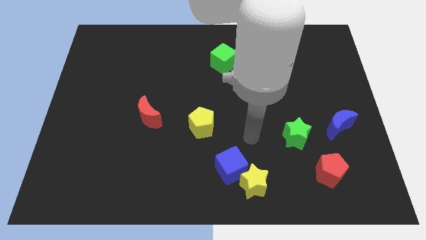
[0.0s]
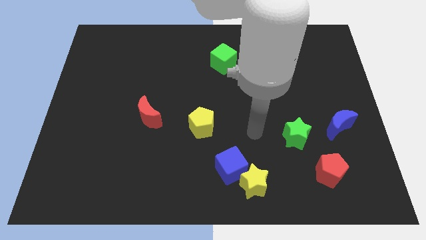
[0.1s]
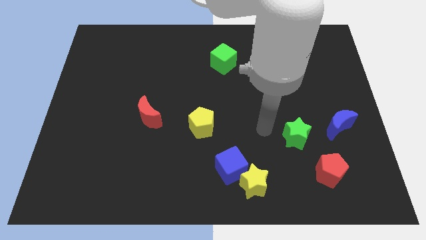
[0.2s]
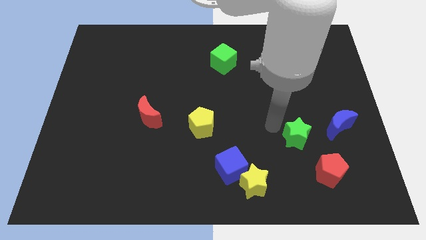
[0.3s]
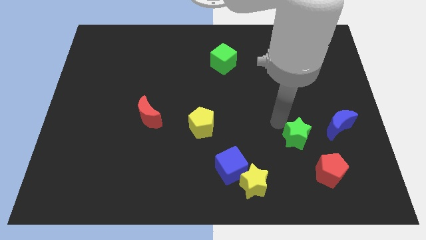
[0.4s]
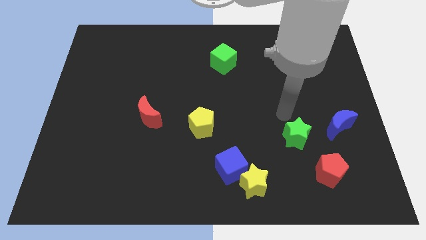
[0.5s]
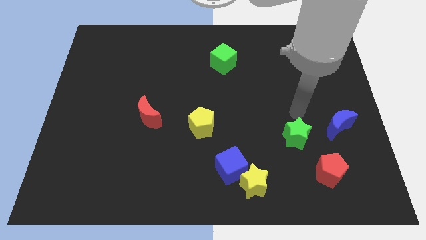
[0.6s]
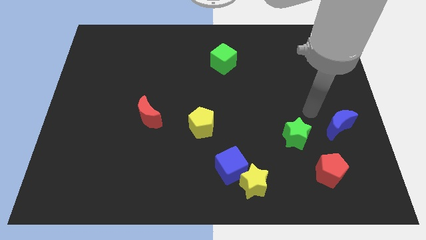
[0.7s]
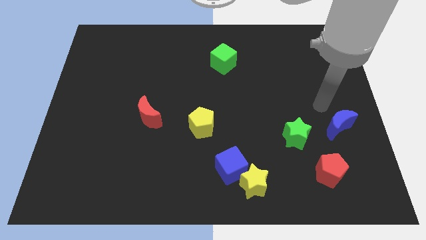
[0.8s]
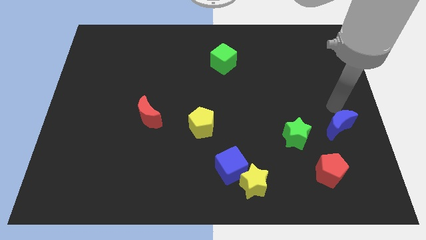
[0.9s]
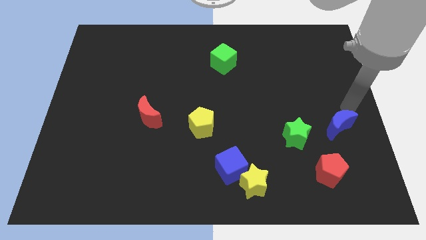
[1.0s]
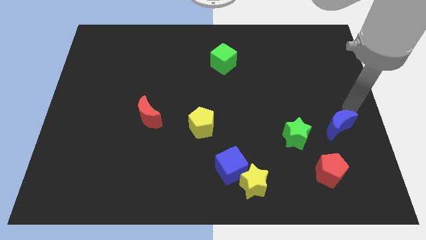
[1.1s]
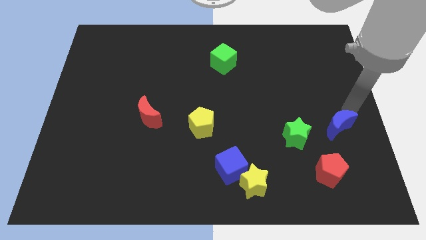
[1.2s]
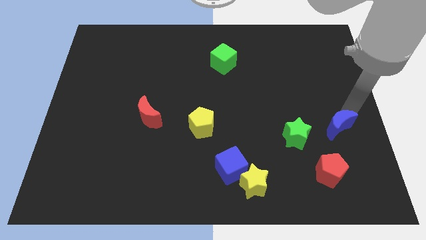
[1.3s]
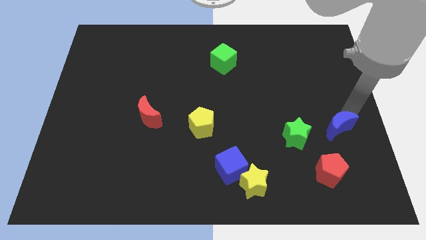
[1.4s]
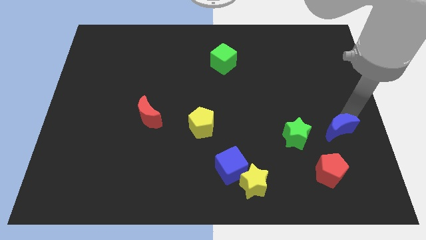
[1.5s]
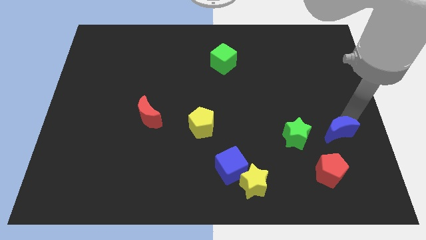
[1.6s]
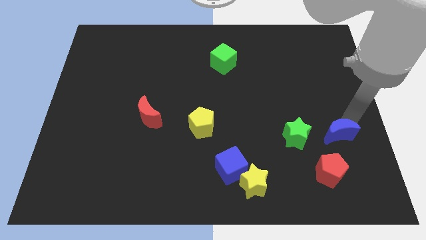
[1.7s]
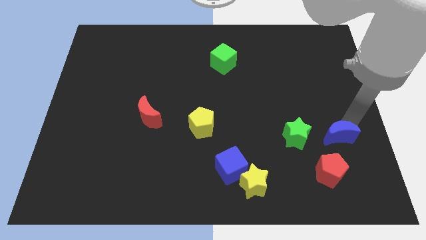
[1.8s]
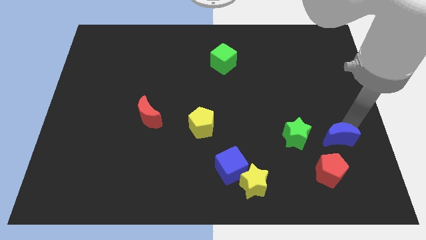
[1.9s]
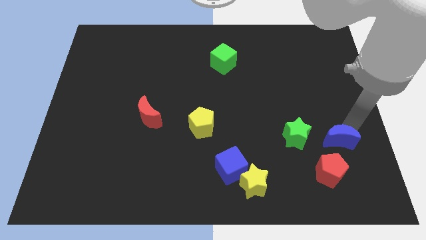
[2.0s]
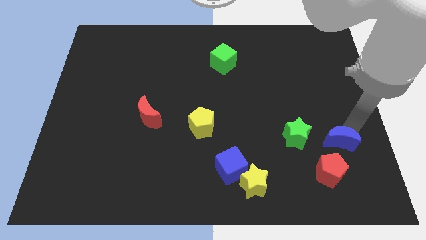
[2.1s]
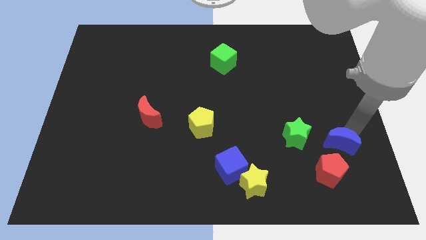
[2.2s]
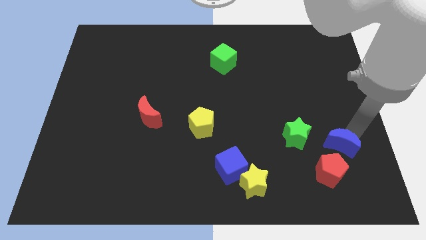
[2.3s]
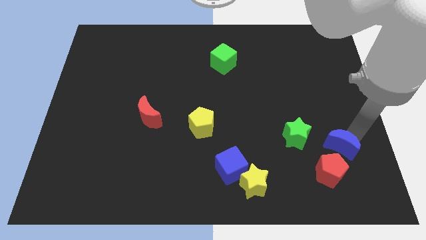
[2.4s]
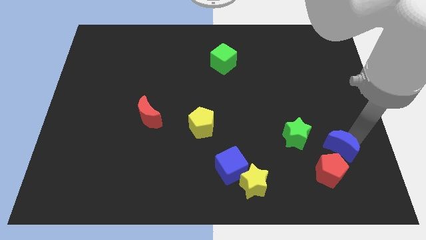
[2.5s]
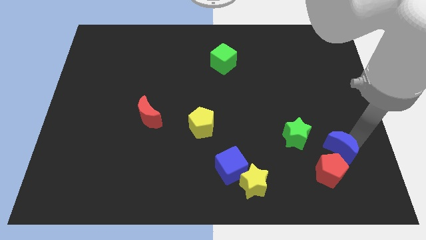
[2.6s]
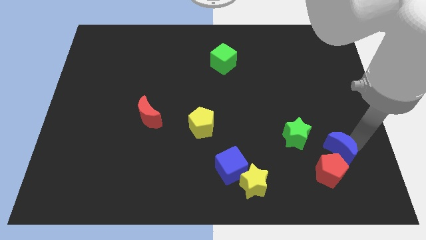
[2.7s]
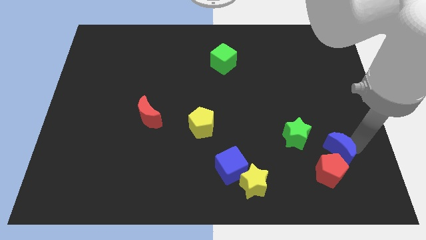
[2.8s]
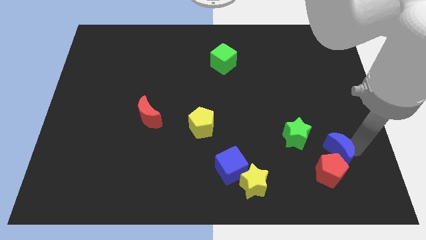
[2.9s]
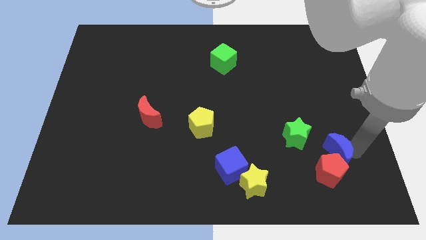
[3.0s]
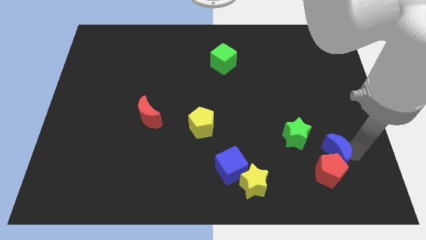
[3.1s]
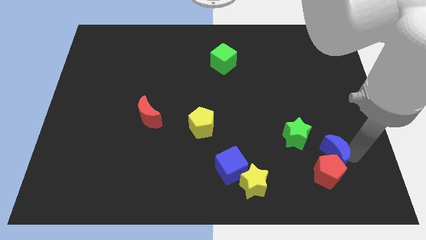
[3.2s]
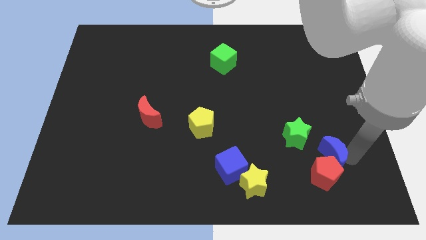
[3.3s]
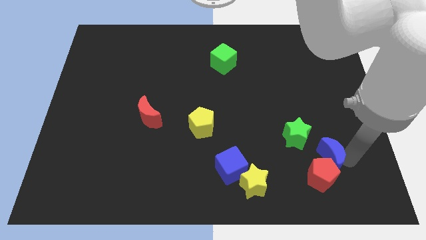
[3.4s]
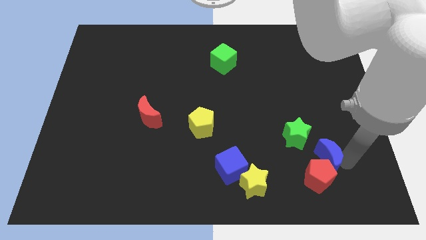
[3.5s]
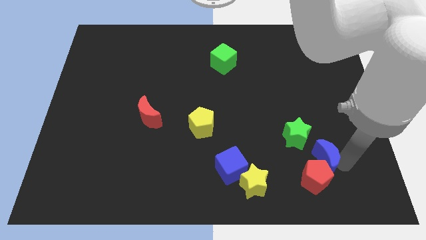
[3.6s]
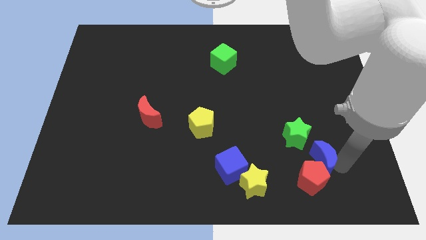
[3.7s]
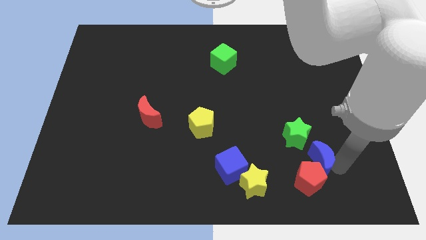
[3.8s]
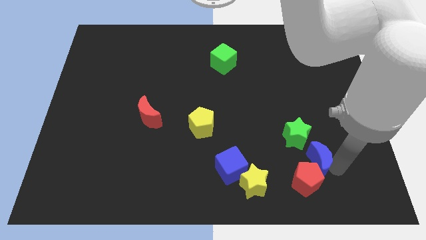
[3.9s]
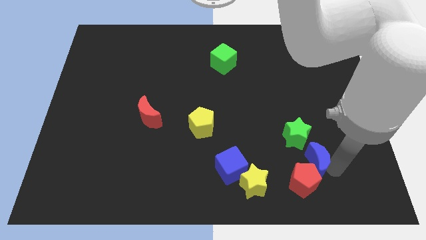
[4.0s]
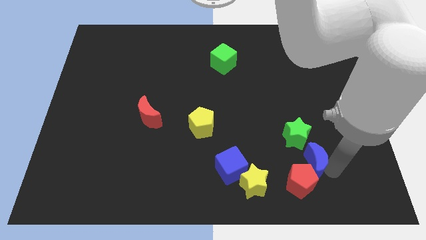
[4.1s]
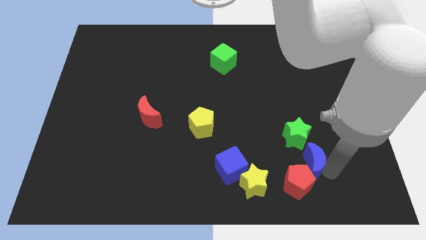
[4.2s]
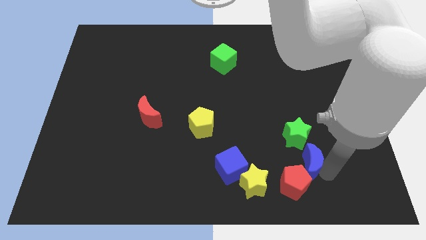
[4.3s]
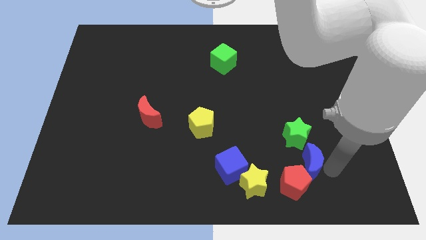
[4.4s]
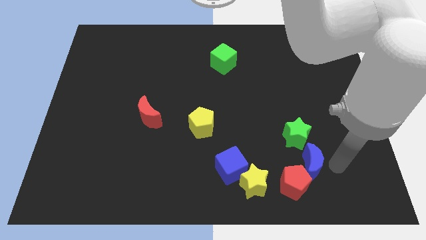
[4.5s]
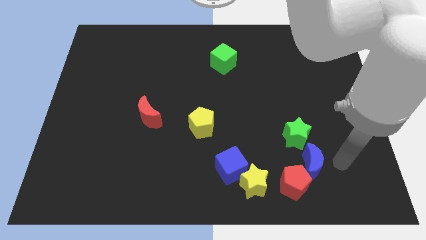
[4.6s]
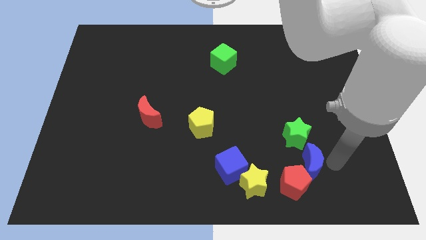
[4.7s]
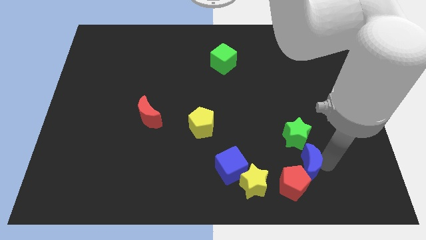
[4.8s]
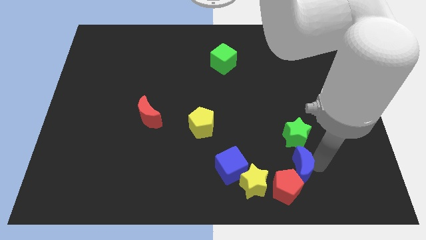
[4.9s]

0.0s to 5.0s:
put the blue moon to the right side of the blue cube

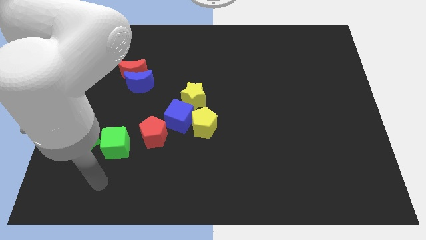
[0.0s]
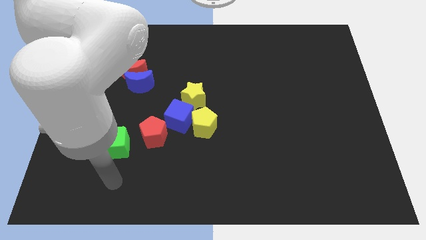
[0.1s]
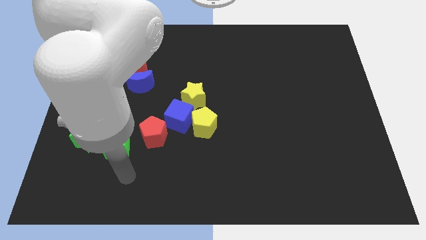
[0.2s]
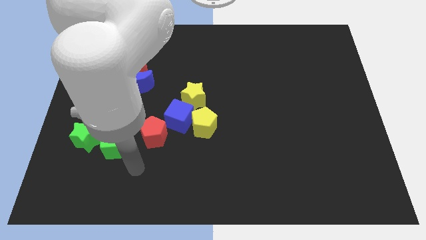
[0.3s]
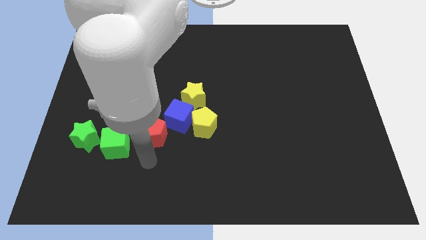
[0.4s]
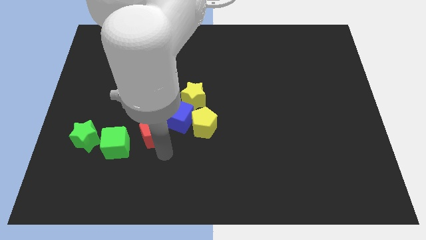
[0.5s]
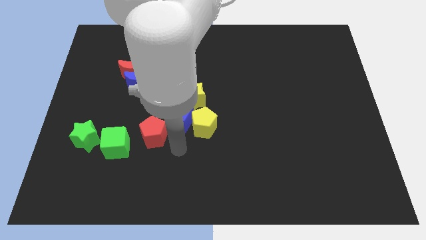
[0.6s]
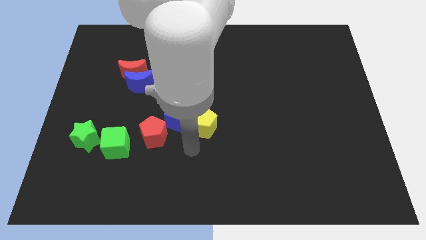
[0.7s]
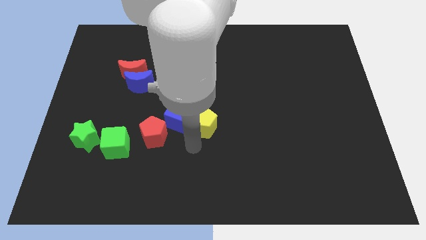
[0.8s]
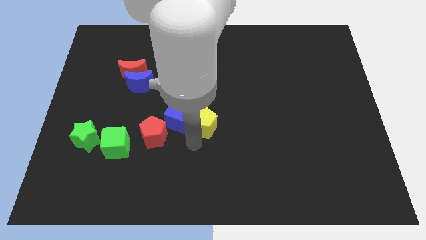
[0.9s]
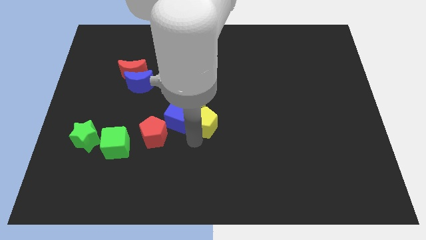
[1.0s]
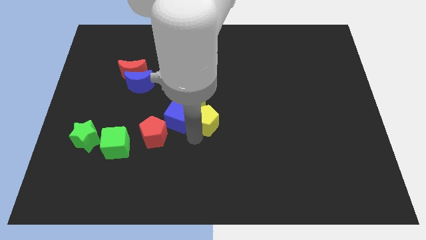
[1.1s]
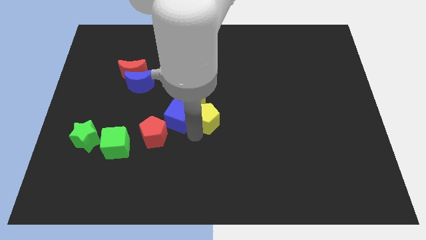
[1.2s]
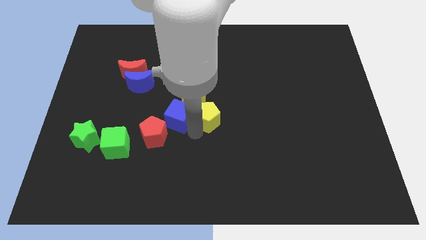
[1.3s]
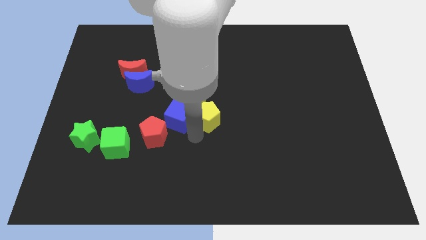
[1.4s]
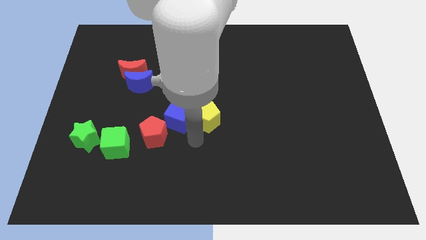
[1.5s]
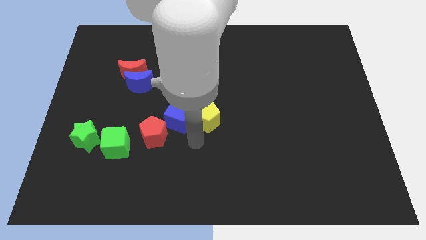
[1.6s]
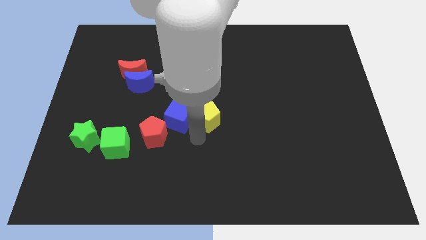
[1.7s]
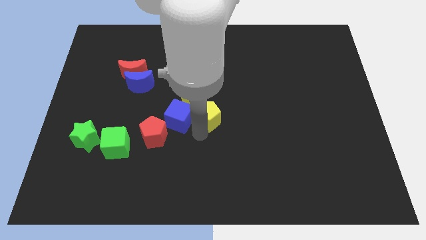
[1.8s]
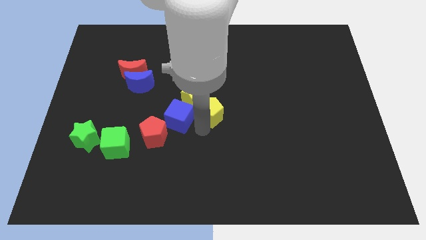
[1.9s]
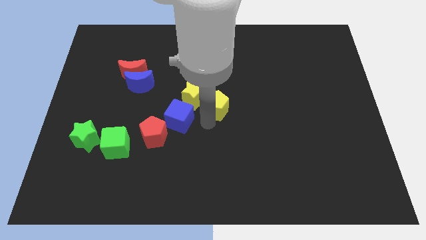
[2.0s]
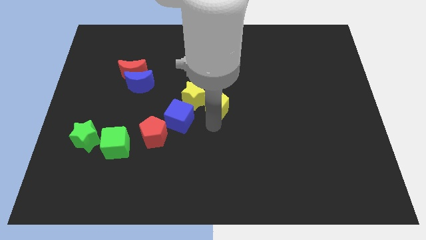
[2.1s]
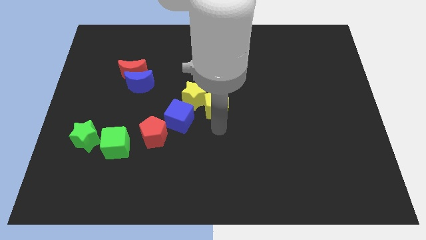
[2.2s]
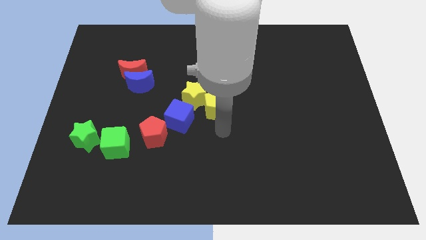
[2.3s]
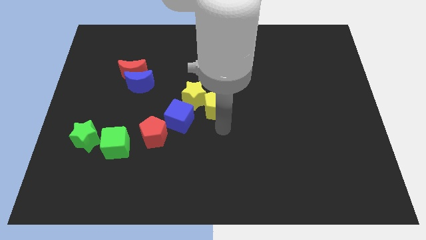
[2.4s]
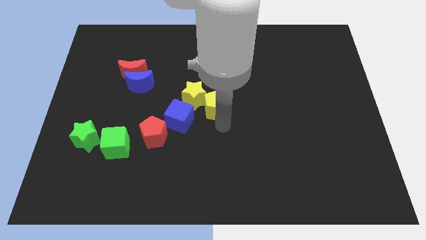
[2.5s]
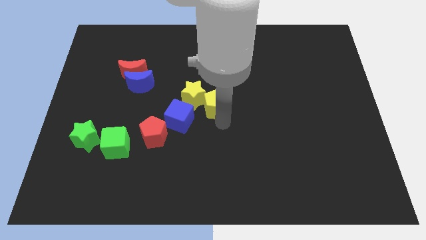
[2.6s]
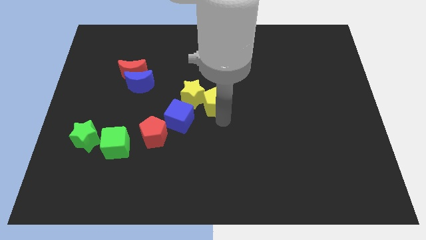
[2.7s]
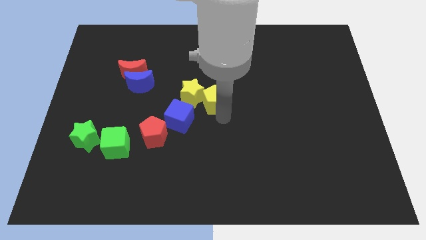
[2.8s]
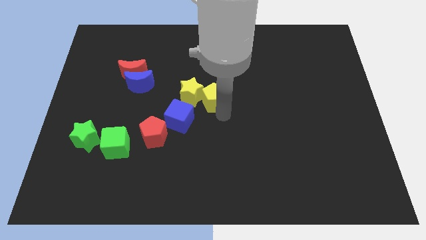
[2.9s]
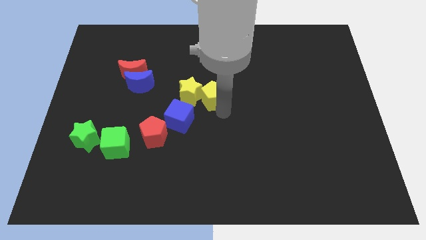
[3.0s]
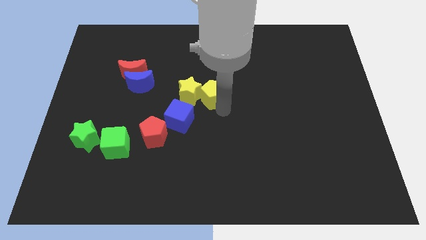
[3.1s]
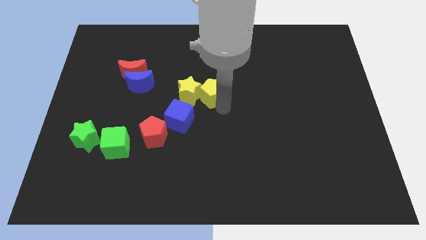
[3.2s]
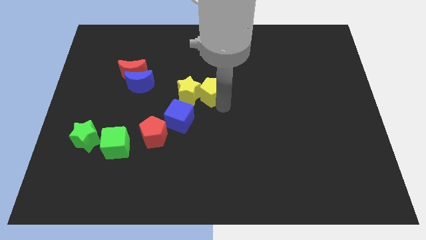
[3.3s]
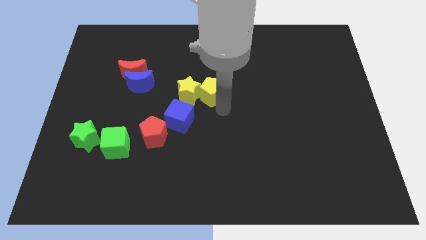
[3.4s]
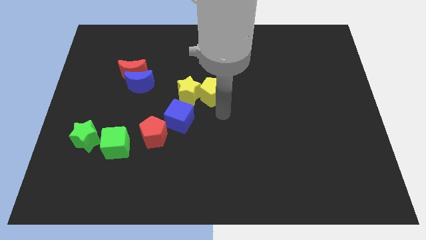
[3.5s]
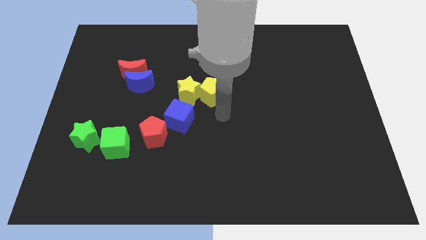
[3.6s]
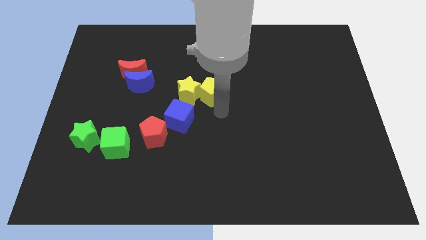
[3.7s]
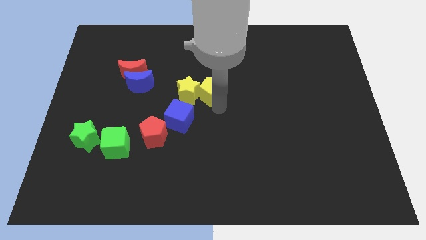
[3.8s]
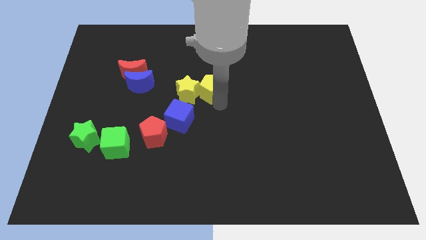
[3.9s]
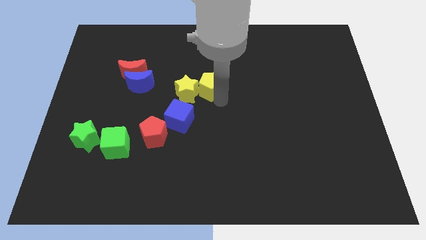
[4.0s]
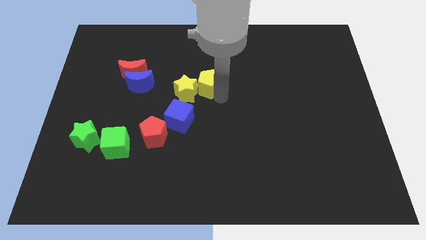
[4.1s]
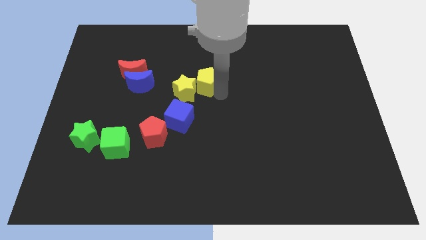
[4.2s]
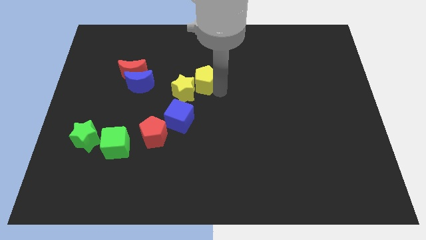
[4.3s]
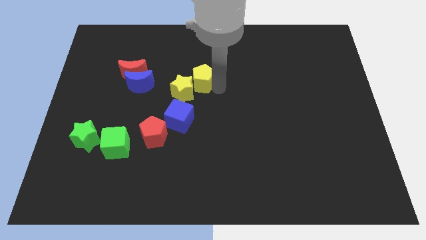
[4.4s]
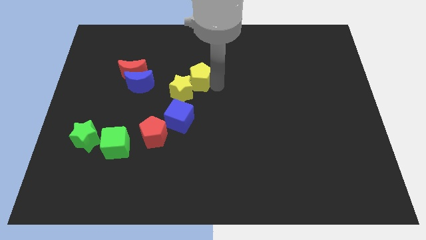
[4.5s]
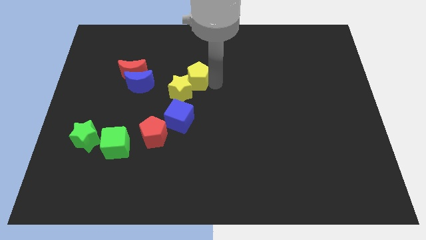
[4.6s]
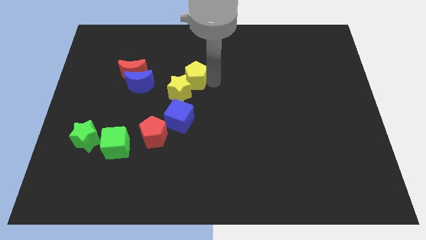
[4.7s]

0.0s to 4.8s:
slide the yellow pentagon to the right side of the red moon
